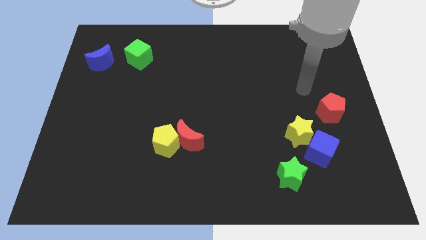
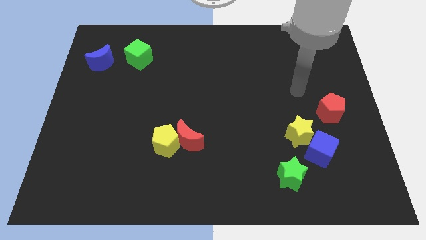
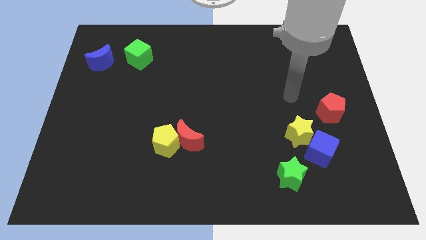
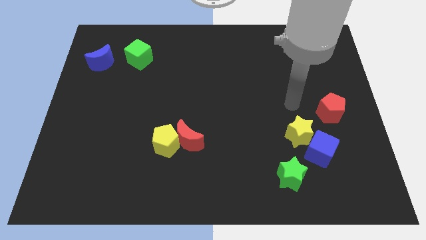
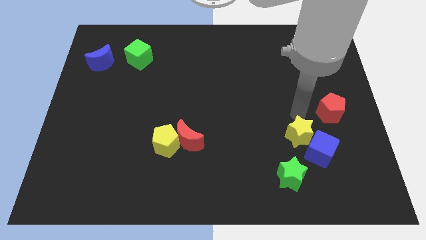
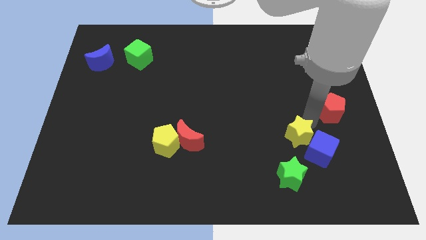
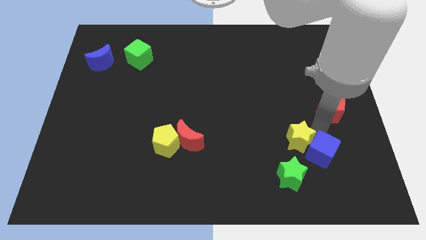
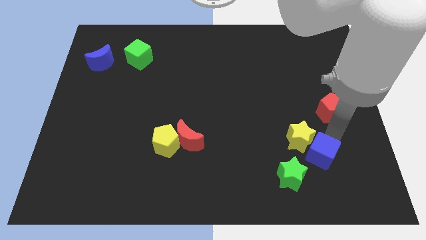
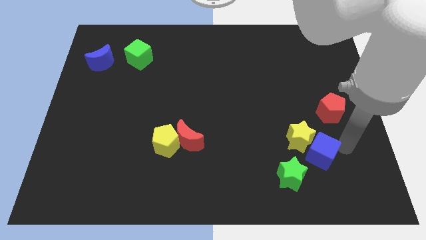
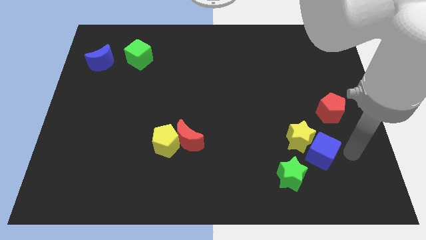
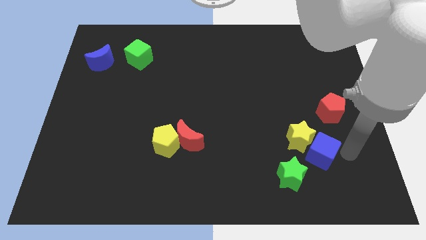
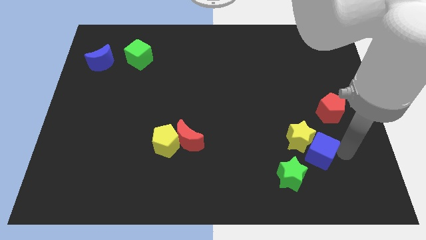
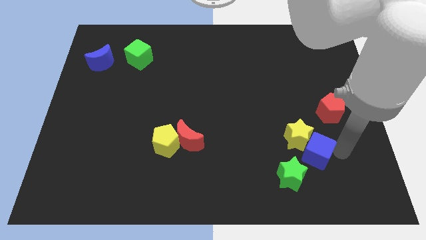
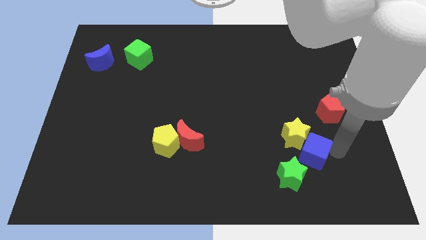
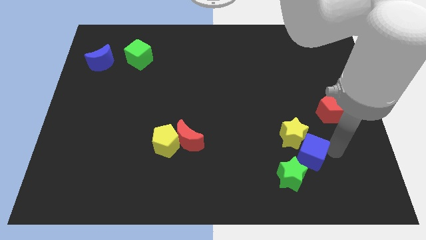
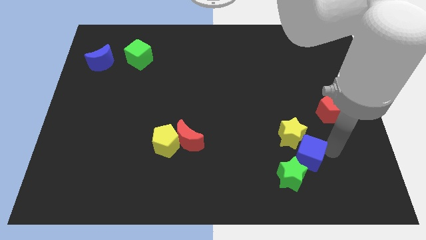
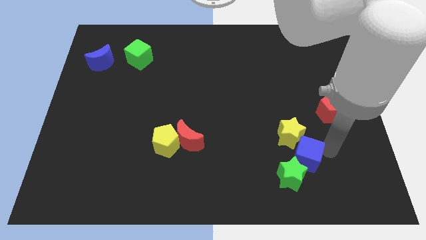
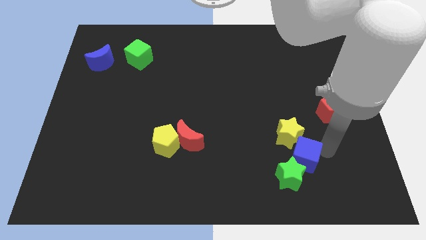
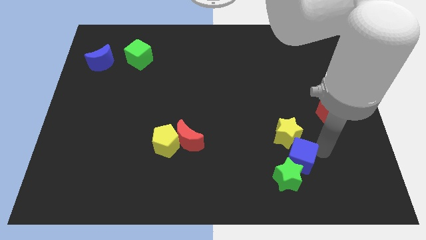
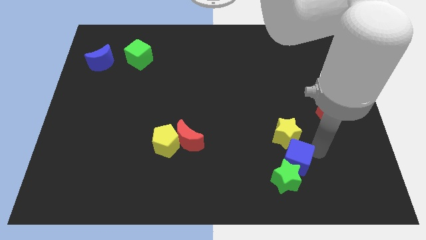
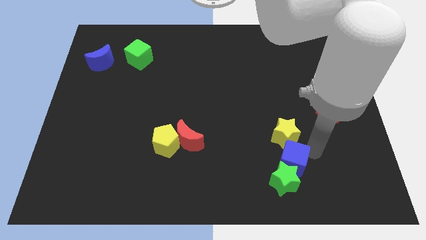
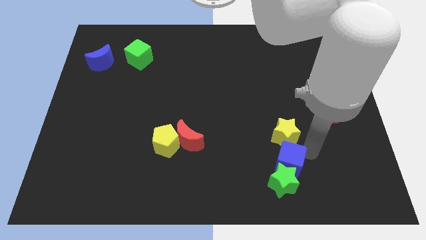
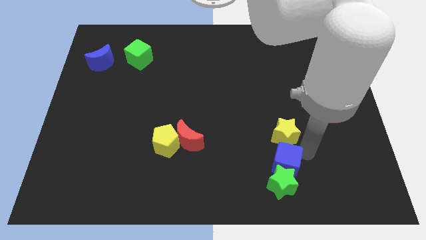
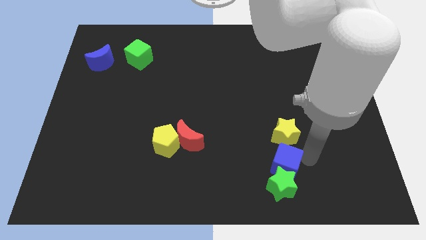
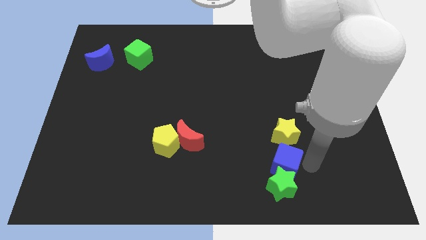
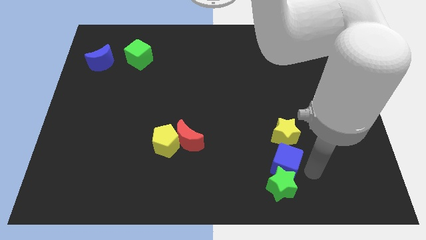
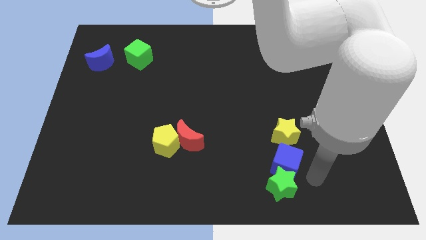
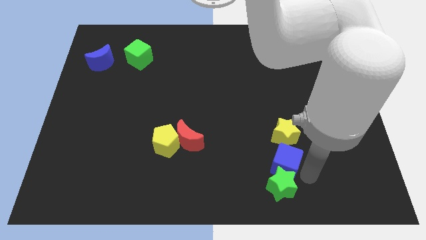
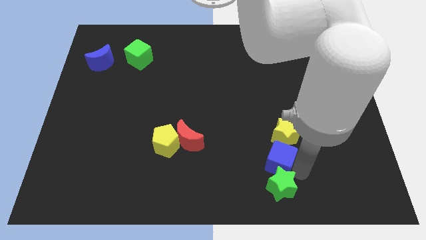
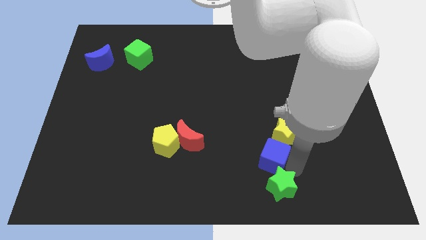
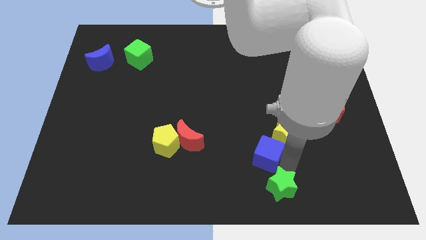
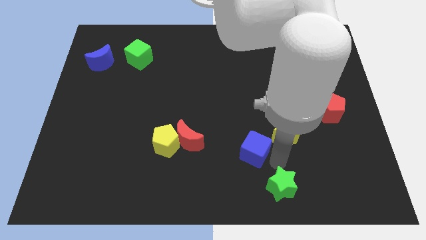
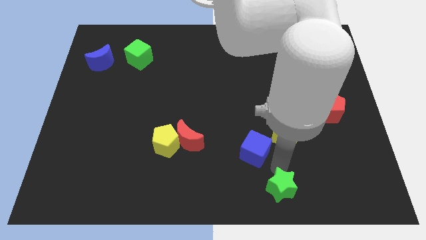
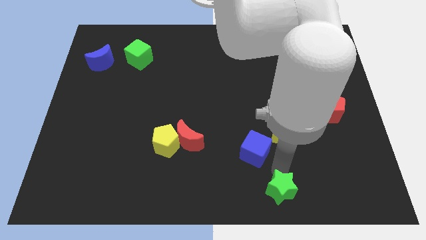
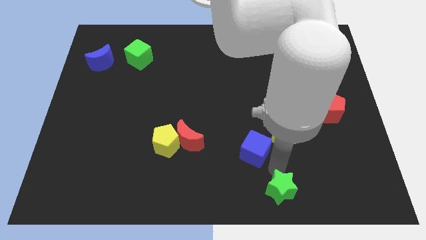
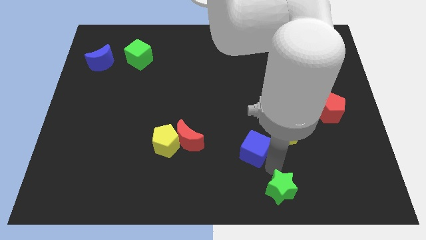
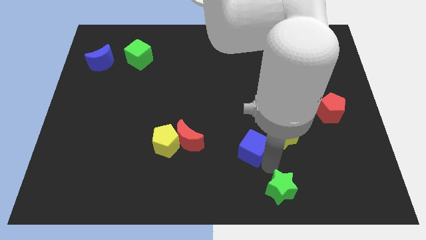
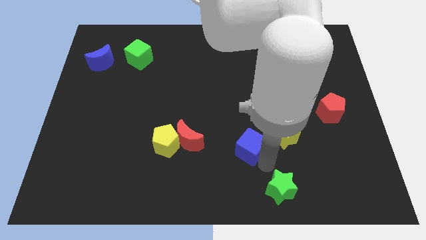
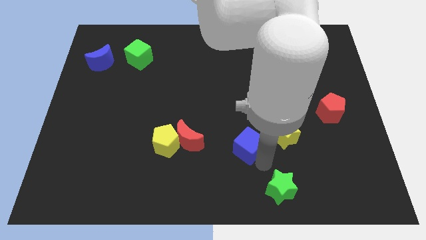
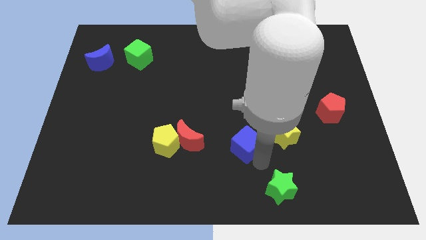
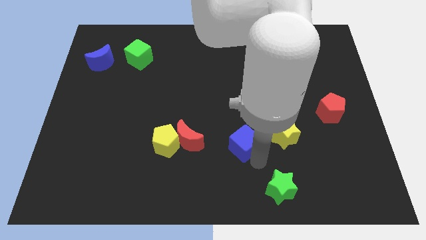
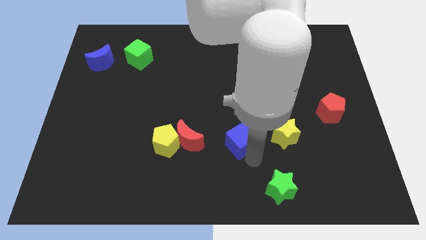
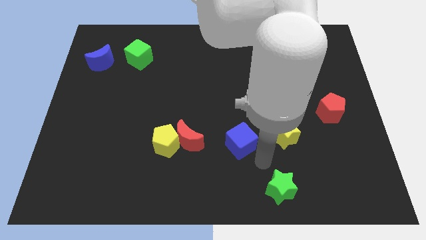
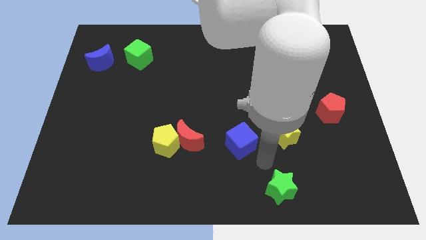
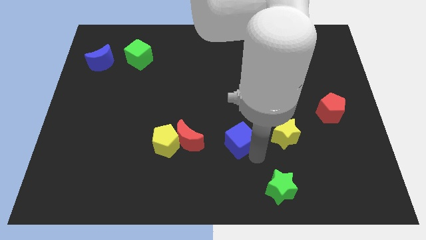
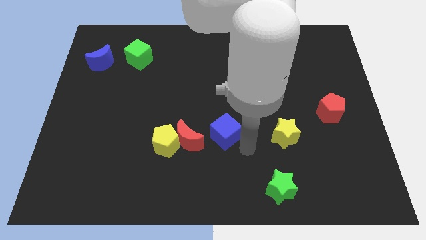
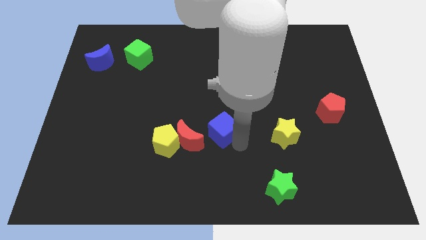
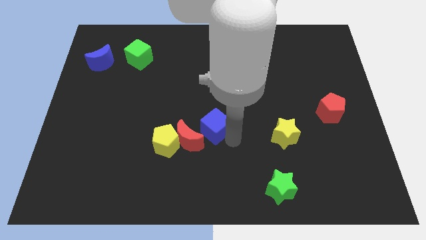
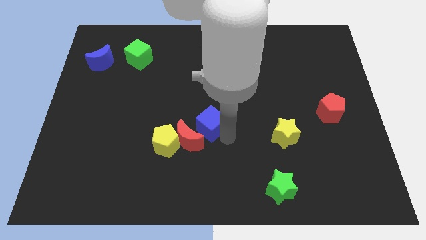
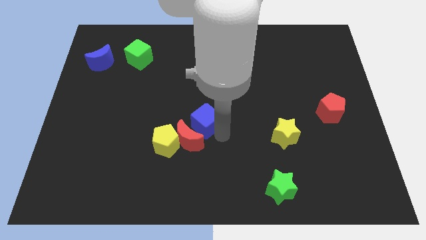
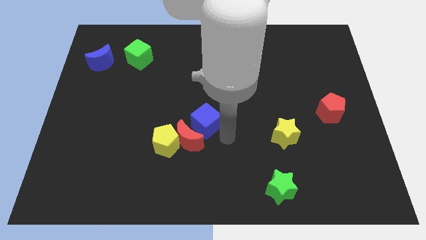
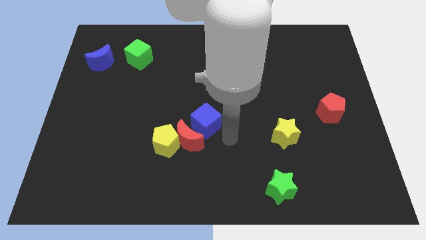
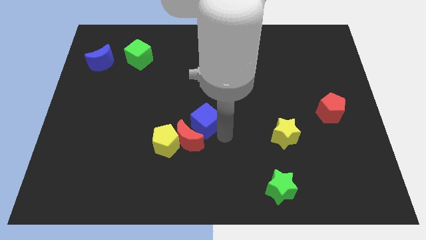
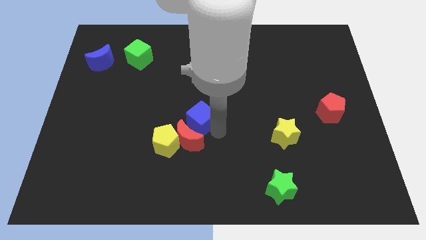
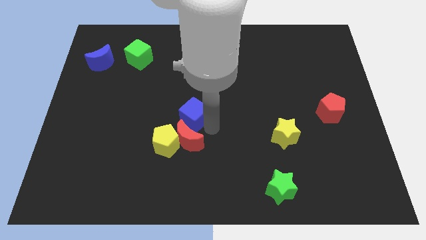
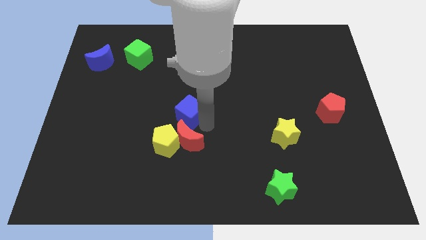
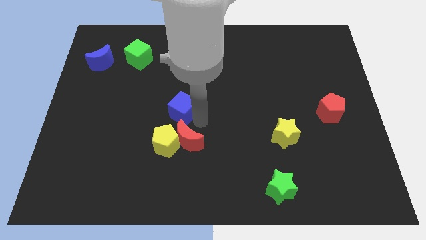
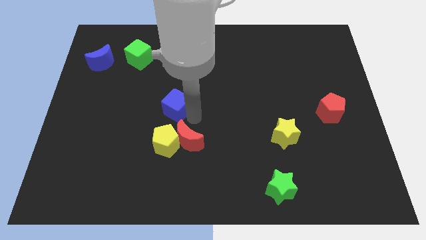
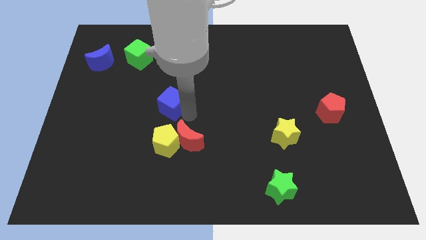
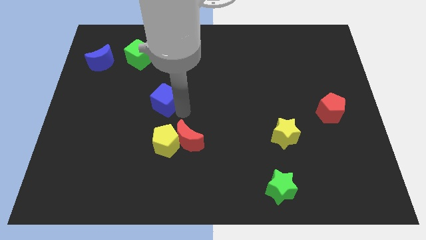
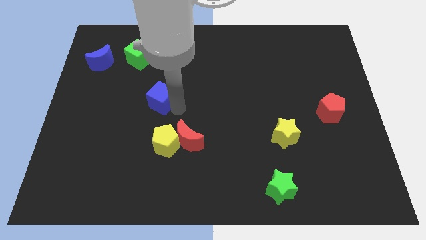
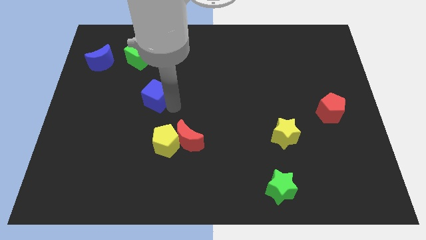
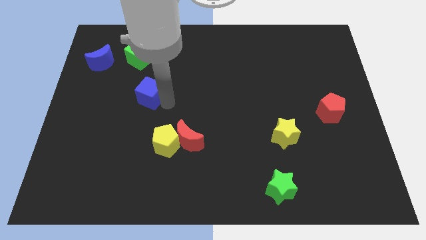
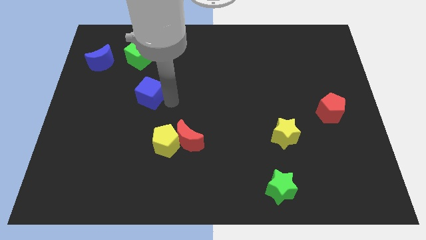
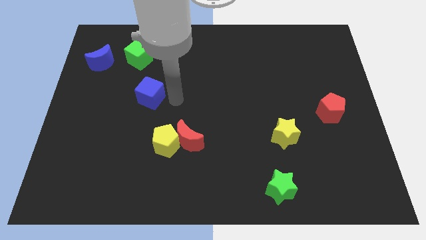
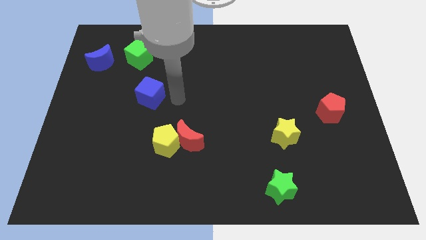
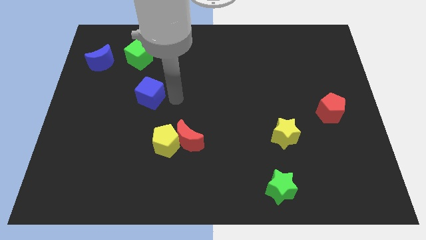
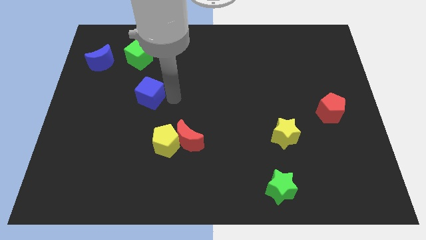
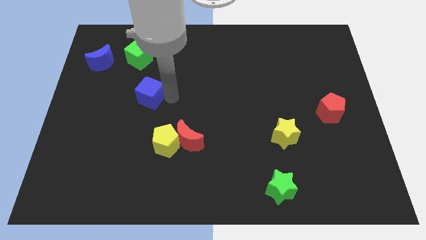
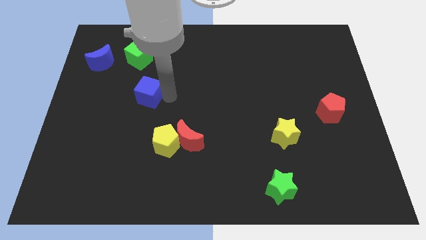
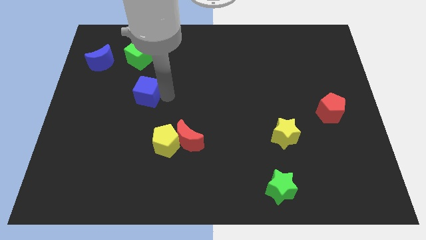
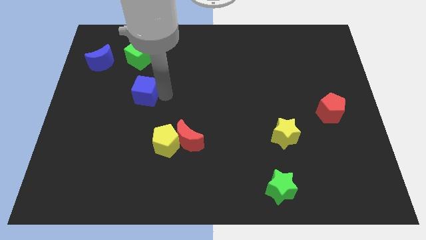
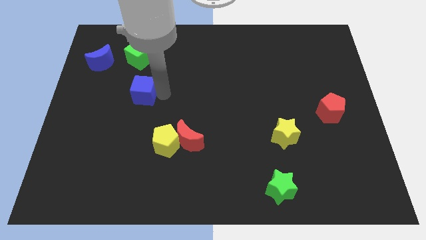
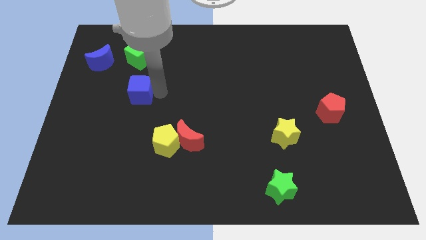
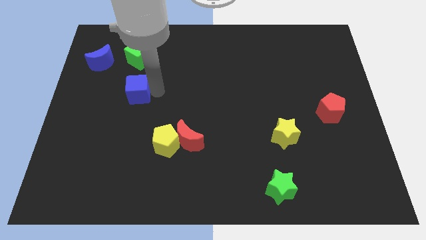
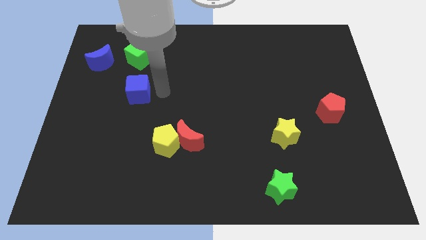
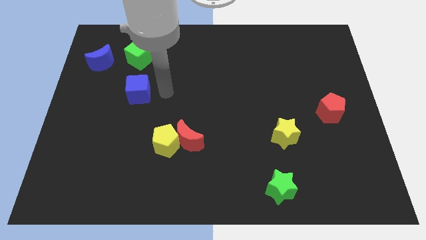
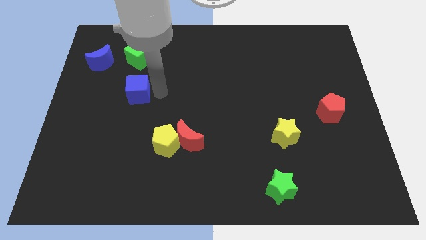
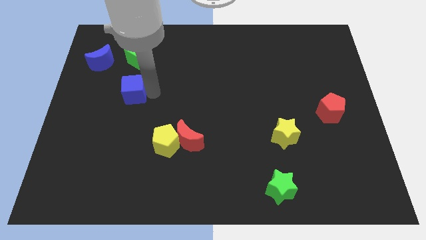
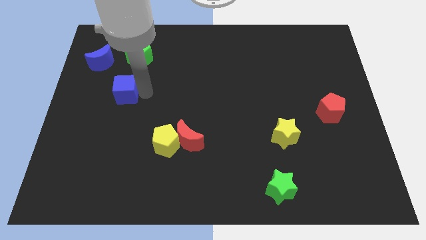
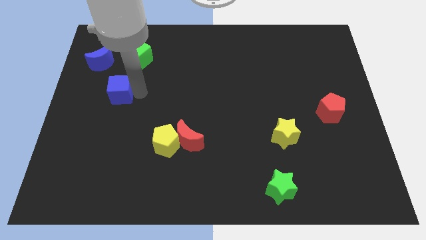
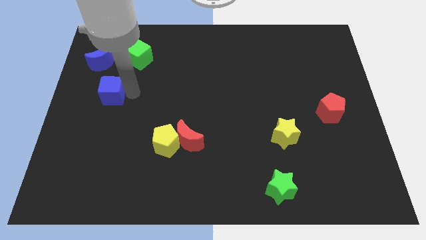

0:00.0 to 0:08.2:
slide the blue cube to the bottom of the blue moon
